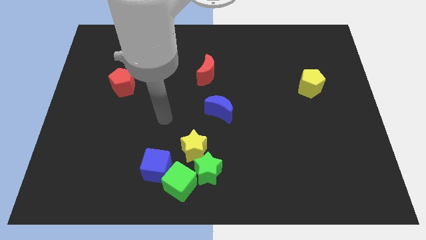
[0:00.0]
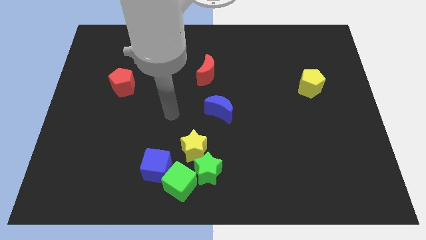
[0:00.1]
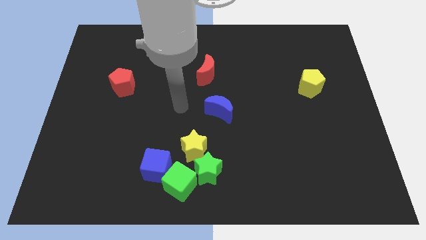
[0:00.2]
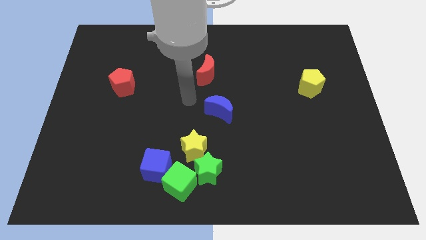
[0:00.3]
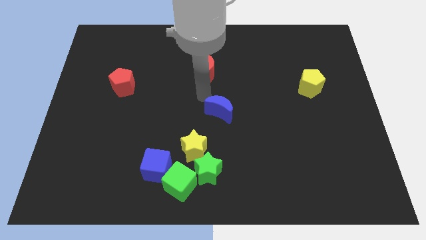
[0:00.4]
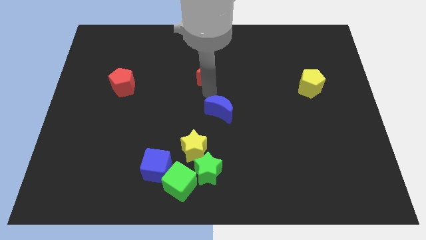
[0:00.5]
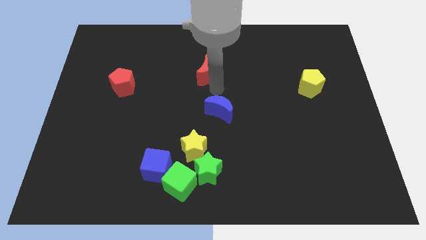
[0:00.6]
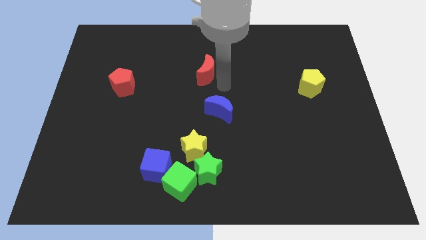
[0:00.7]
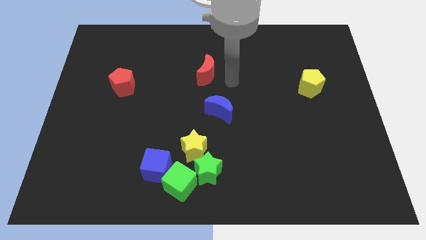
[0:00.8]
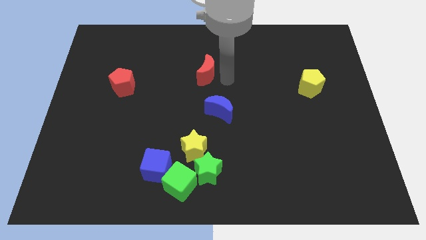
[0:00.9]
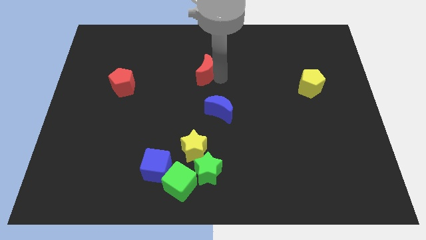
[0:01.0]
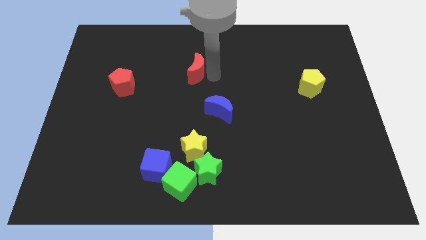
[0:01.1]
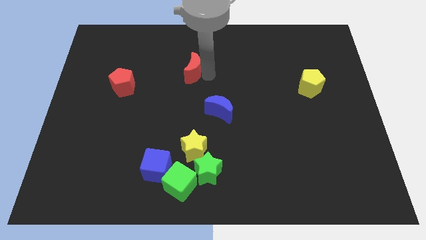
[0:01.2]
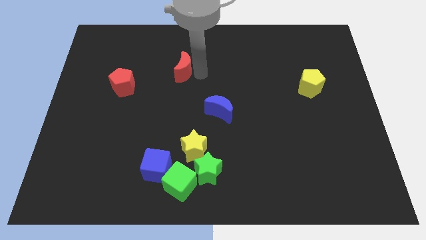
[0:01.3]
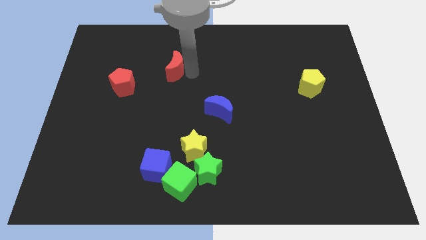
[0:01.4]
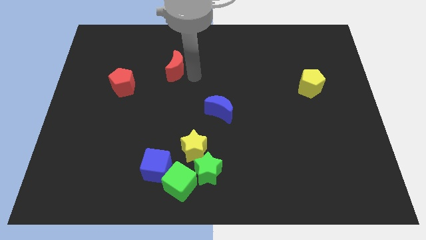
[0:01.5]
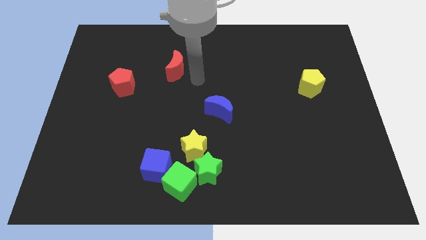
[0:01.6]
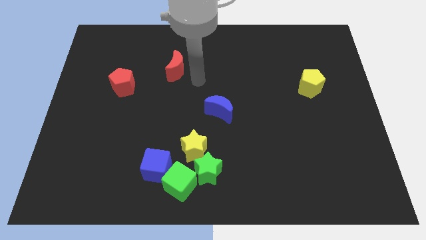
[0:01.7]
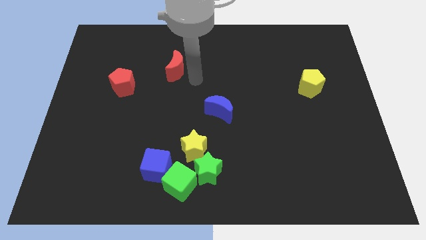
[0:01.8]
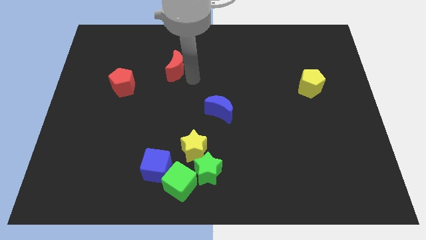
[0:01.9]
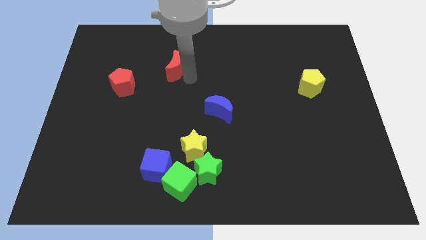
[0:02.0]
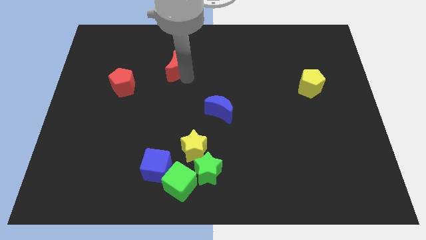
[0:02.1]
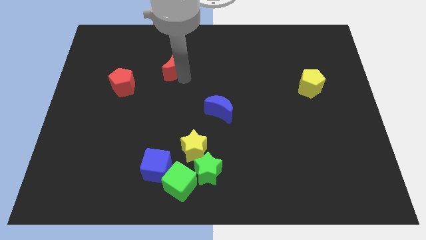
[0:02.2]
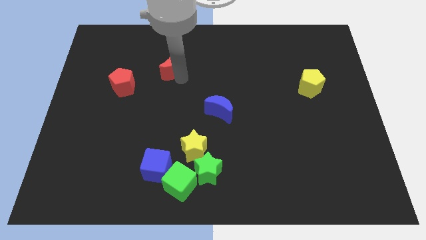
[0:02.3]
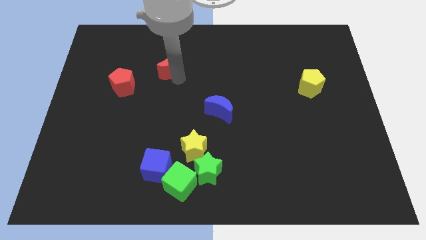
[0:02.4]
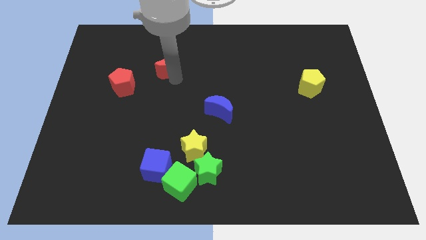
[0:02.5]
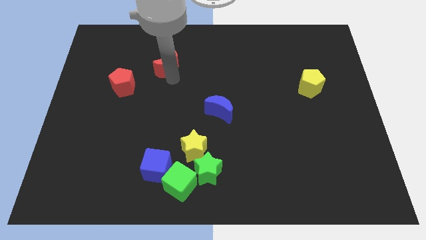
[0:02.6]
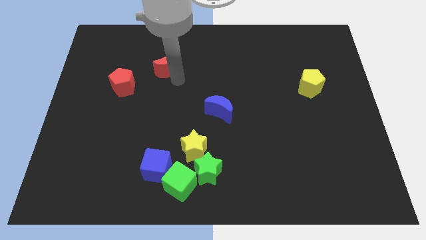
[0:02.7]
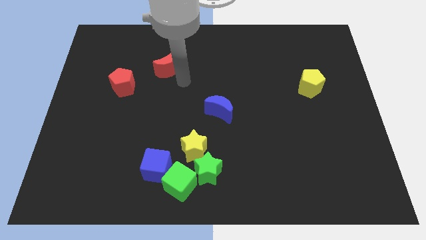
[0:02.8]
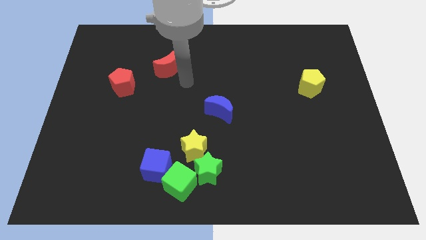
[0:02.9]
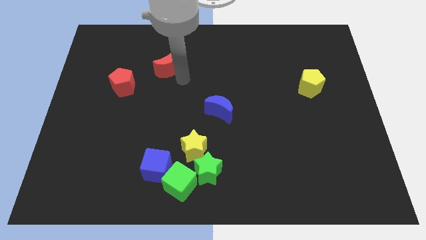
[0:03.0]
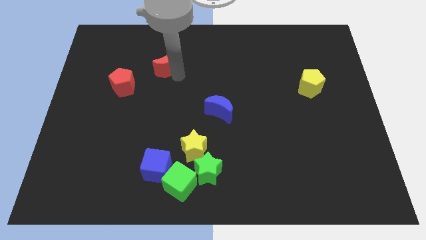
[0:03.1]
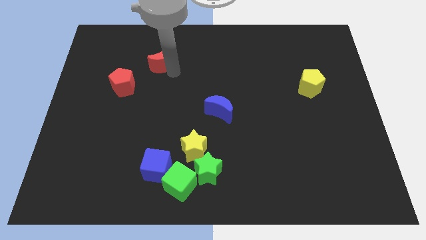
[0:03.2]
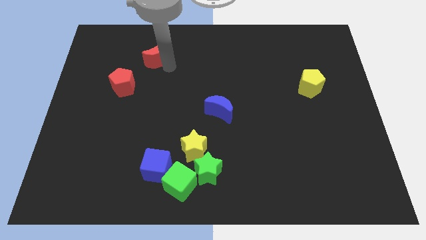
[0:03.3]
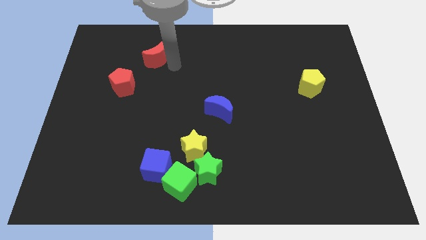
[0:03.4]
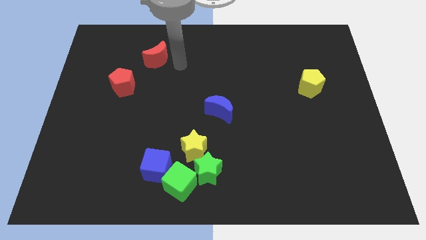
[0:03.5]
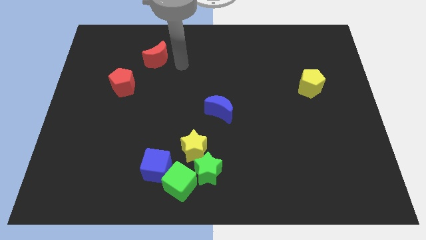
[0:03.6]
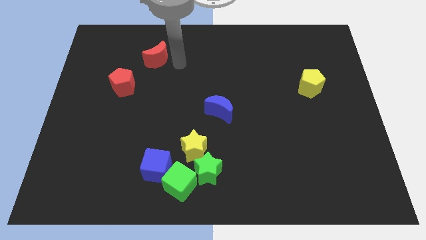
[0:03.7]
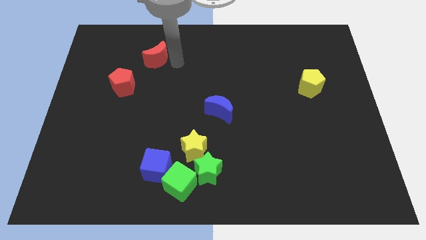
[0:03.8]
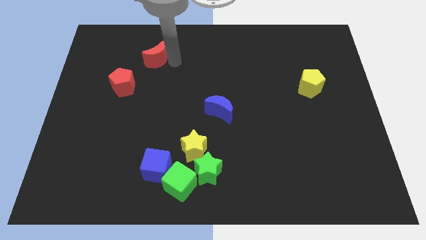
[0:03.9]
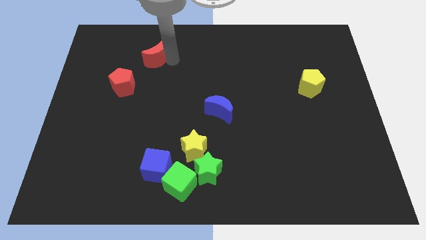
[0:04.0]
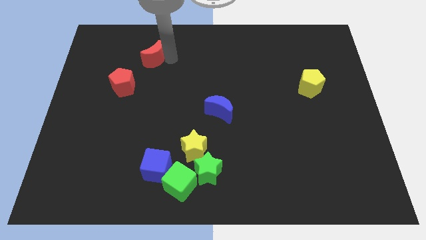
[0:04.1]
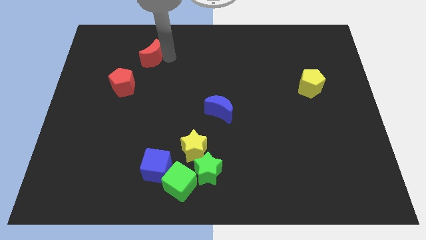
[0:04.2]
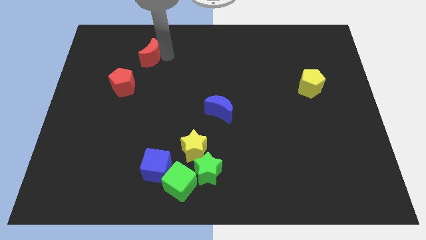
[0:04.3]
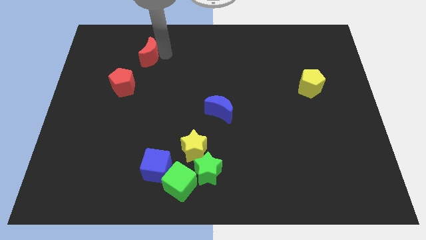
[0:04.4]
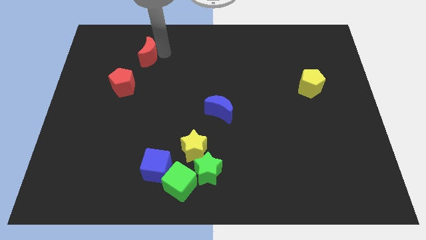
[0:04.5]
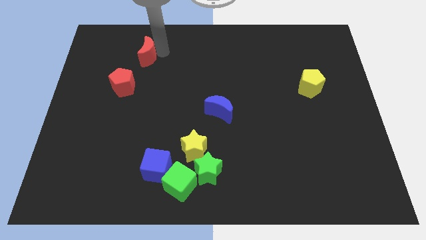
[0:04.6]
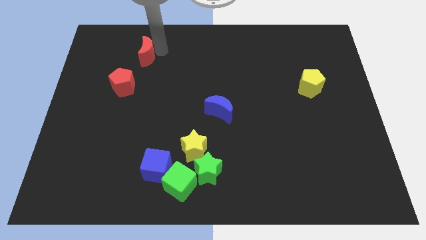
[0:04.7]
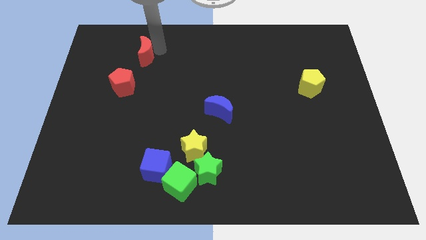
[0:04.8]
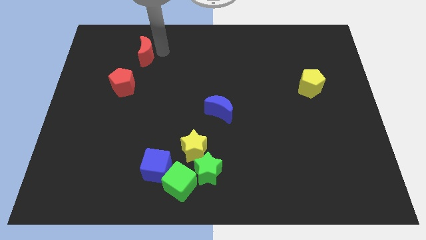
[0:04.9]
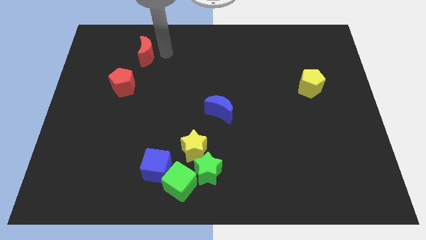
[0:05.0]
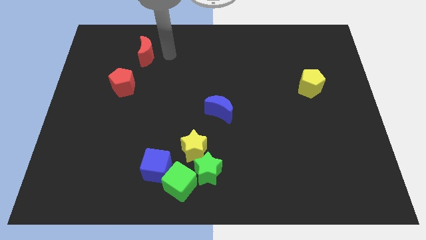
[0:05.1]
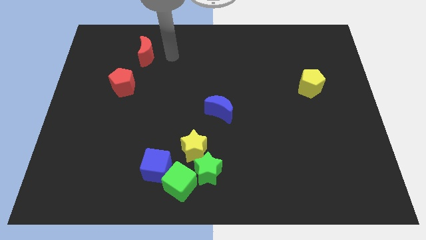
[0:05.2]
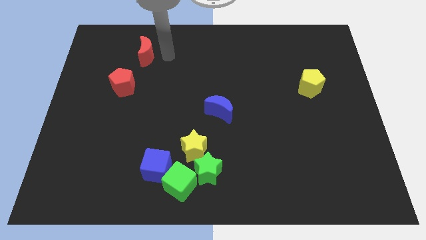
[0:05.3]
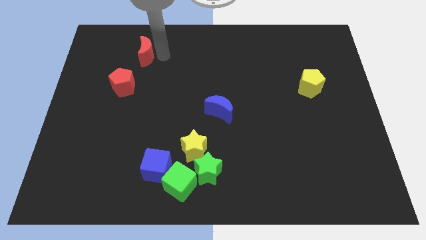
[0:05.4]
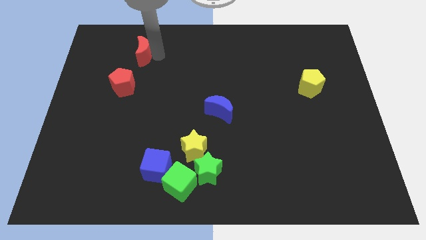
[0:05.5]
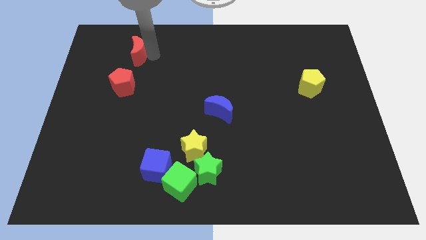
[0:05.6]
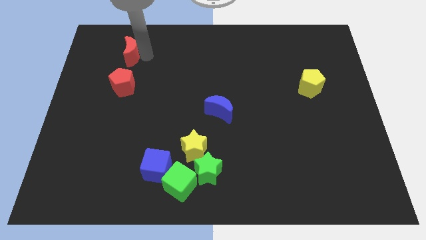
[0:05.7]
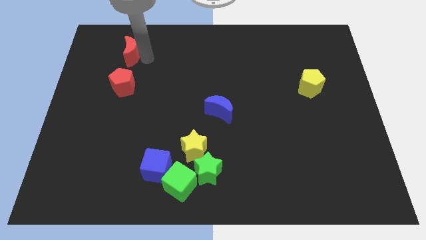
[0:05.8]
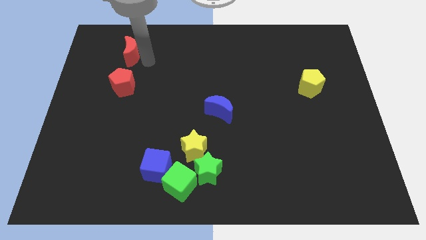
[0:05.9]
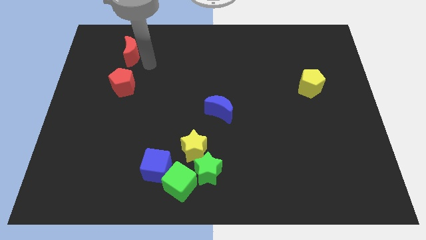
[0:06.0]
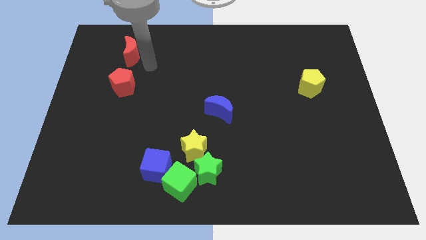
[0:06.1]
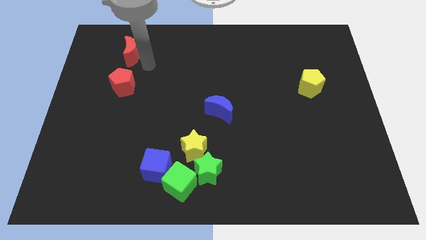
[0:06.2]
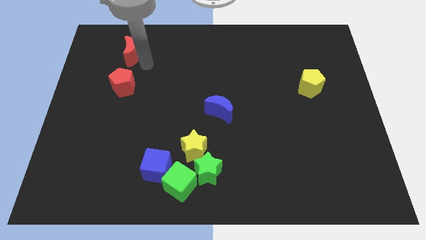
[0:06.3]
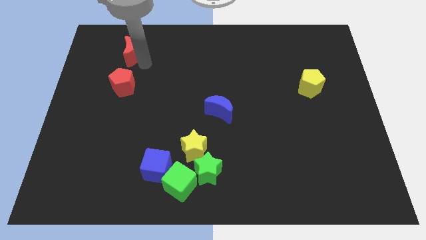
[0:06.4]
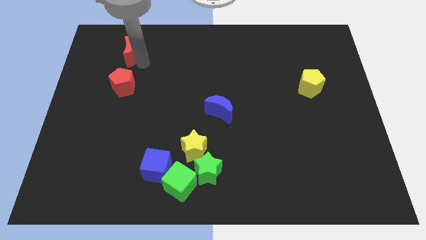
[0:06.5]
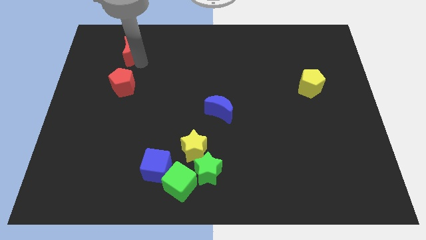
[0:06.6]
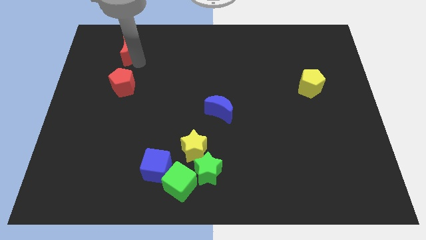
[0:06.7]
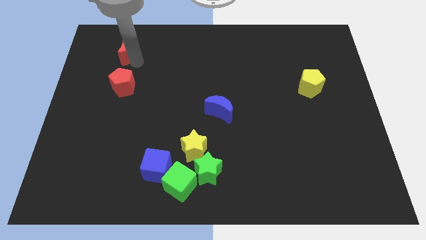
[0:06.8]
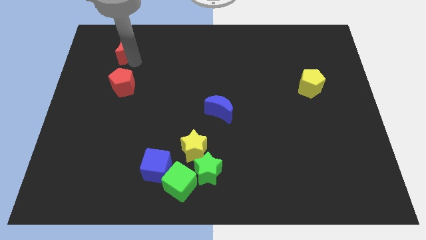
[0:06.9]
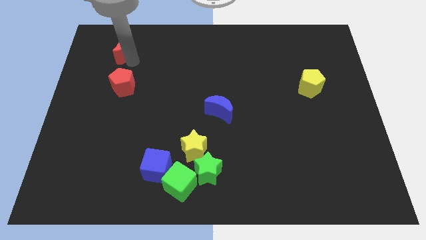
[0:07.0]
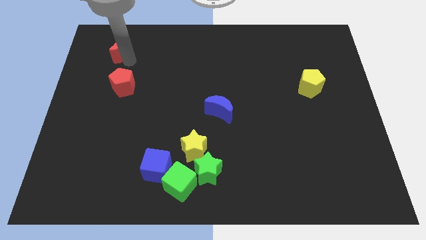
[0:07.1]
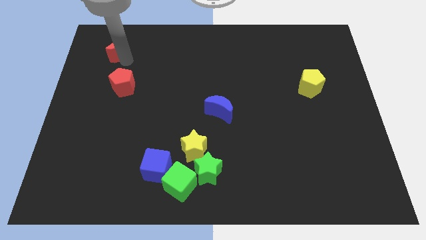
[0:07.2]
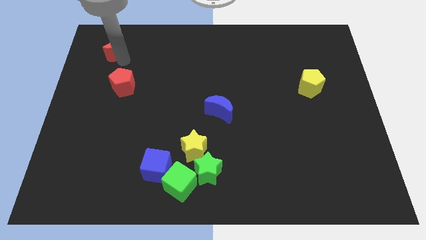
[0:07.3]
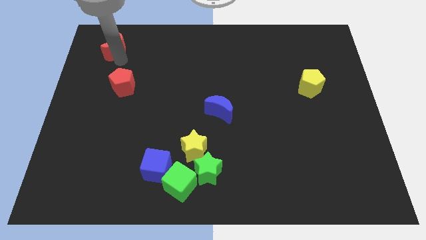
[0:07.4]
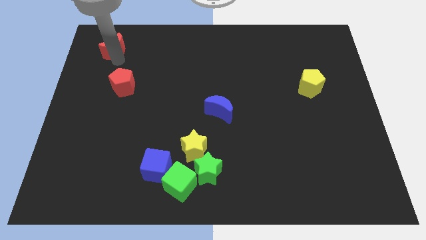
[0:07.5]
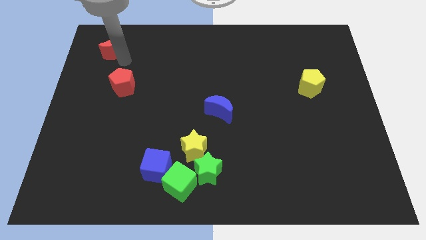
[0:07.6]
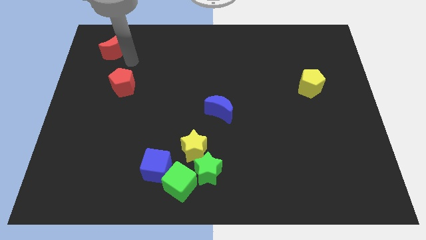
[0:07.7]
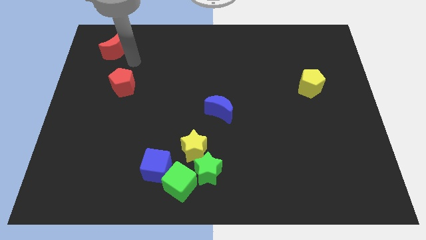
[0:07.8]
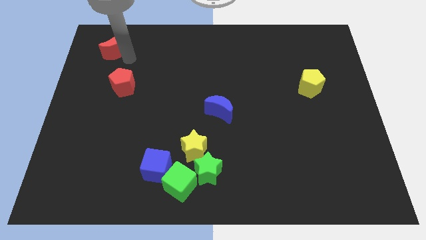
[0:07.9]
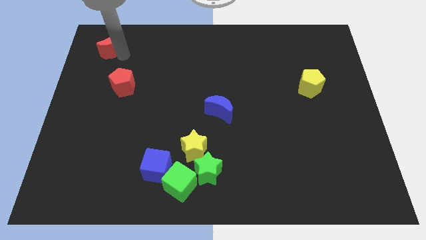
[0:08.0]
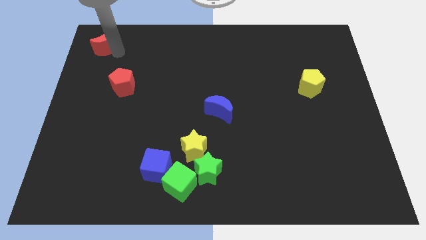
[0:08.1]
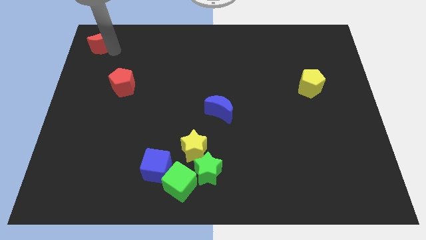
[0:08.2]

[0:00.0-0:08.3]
put the red moon to the top left
